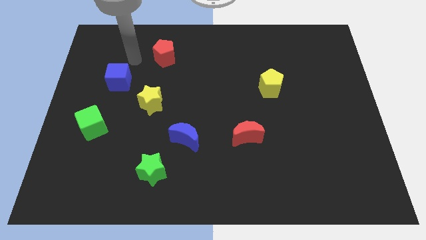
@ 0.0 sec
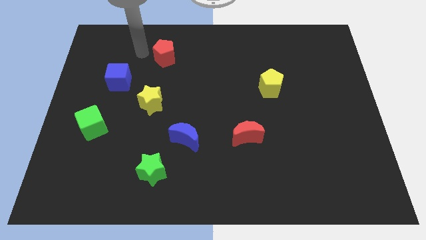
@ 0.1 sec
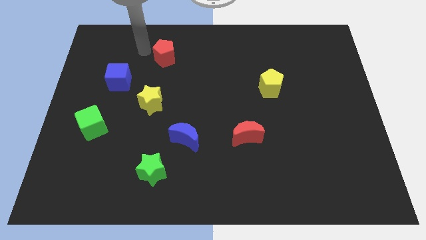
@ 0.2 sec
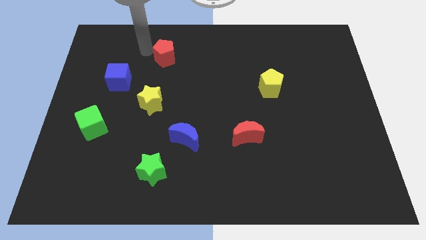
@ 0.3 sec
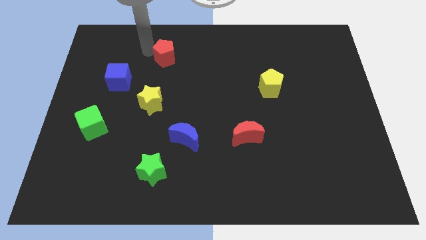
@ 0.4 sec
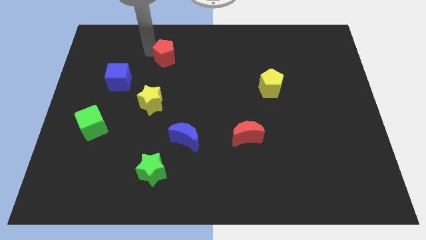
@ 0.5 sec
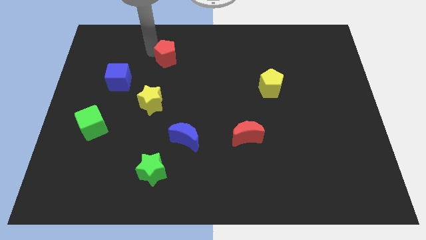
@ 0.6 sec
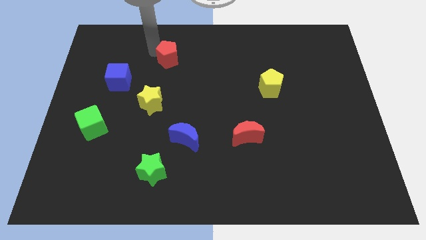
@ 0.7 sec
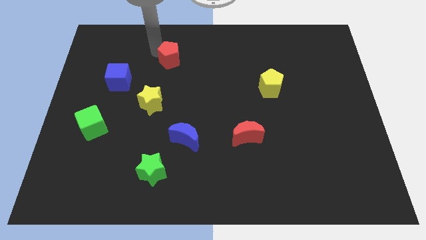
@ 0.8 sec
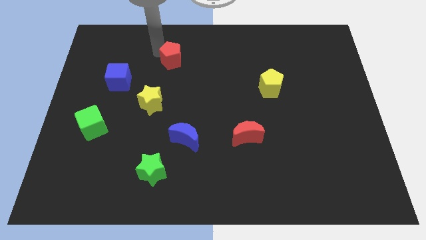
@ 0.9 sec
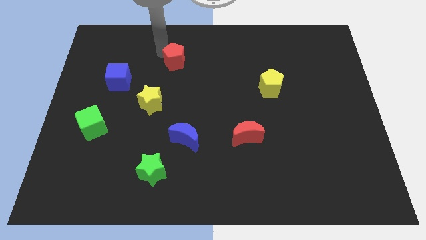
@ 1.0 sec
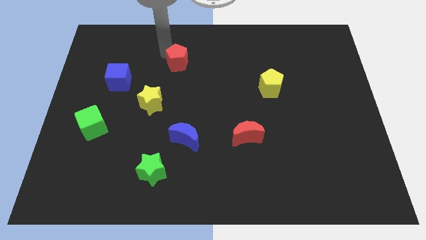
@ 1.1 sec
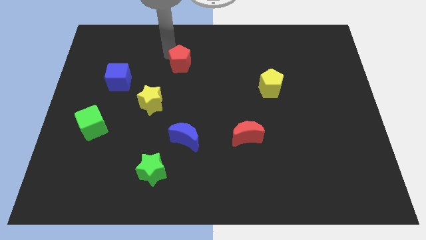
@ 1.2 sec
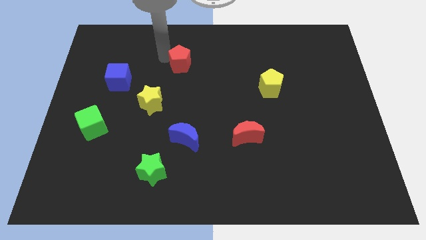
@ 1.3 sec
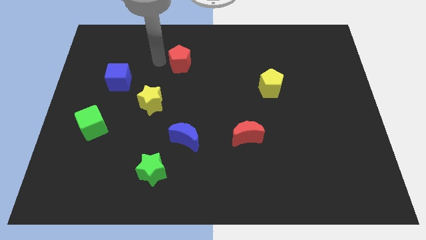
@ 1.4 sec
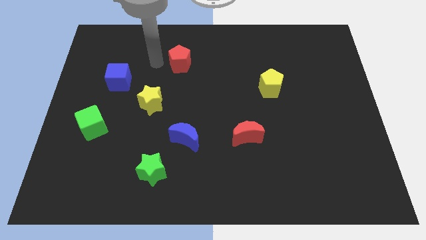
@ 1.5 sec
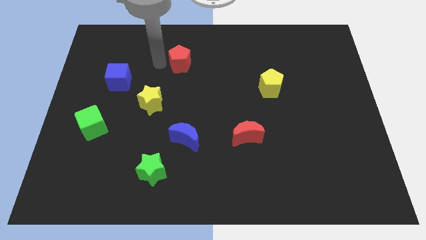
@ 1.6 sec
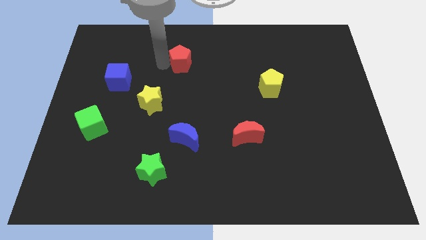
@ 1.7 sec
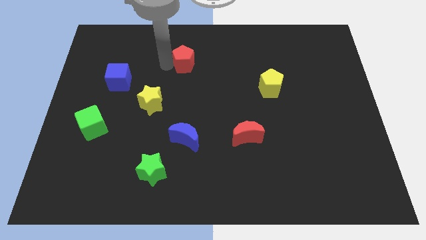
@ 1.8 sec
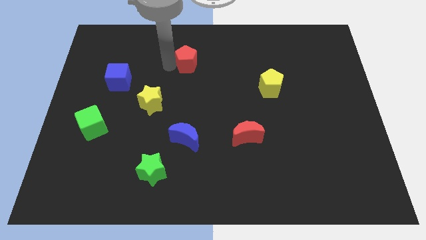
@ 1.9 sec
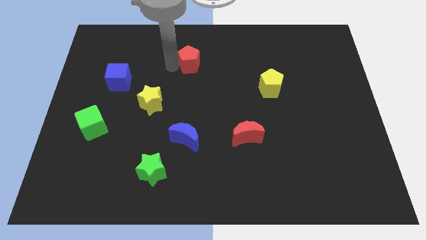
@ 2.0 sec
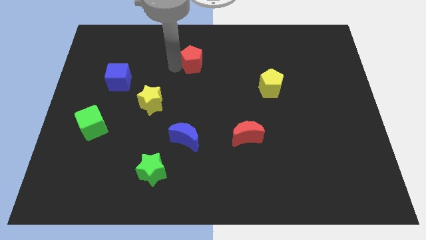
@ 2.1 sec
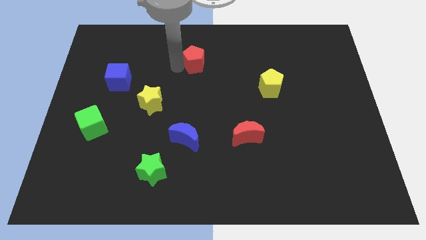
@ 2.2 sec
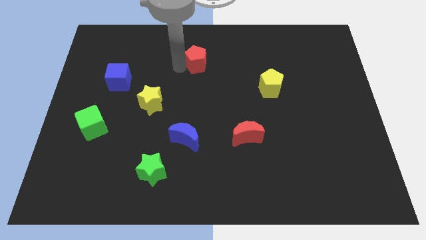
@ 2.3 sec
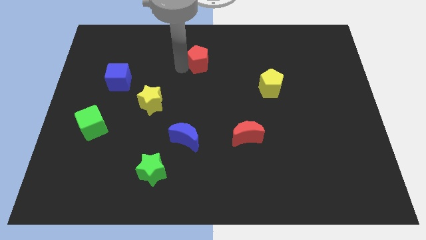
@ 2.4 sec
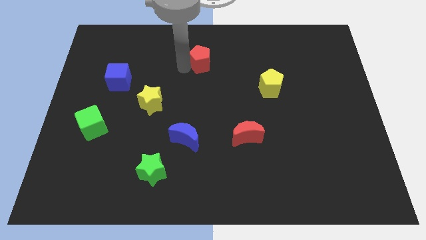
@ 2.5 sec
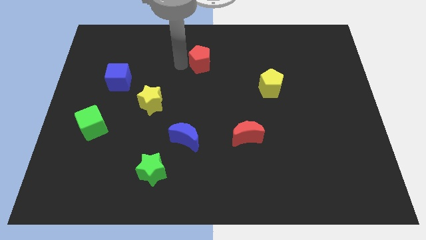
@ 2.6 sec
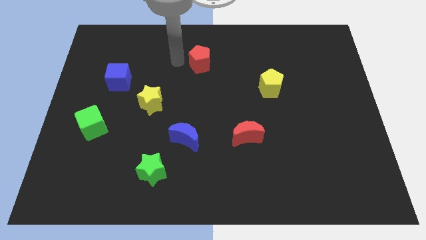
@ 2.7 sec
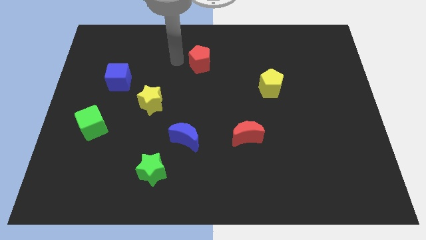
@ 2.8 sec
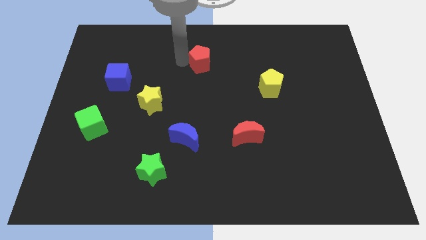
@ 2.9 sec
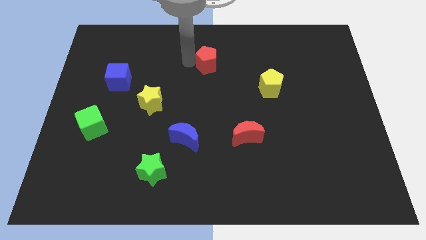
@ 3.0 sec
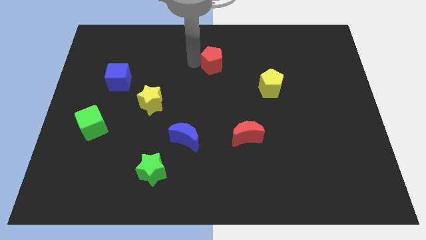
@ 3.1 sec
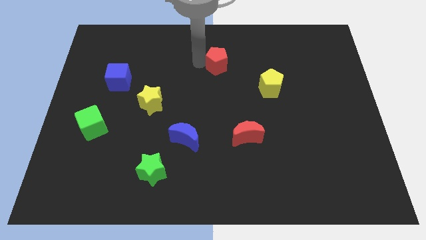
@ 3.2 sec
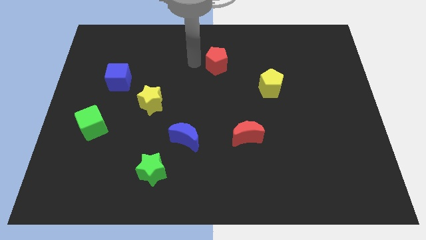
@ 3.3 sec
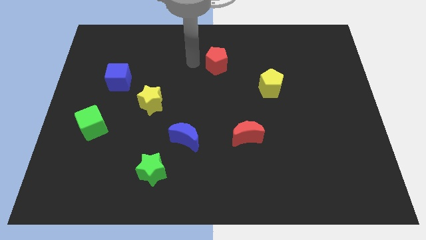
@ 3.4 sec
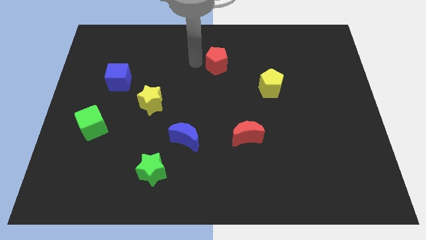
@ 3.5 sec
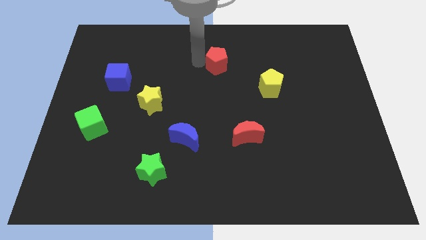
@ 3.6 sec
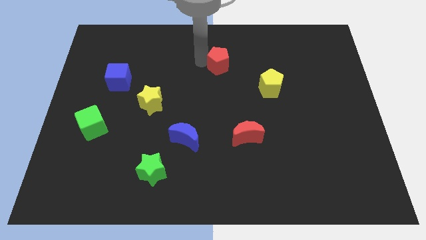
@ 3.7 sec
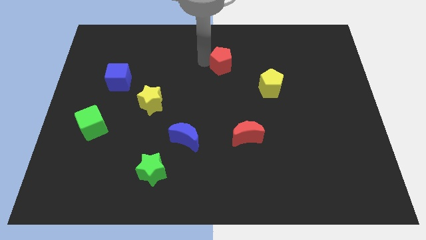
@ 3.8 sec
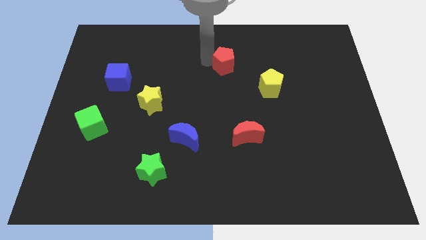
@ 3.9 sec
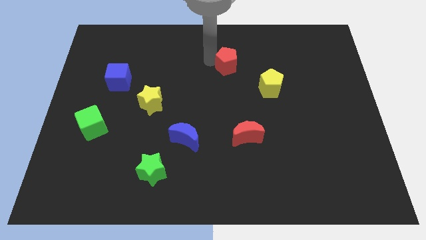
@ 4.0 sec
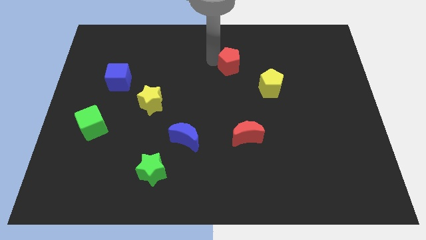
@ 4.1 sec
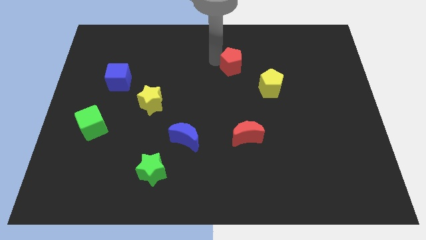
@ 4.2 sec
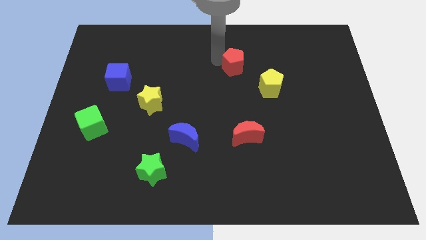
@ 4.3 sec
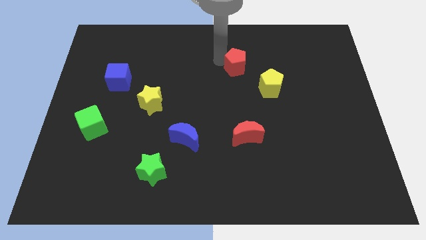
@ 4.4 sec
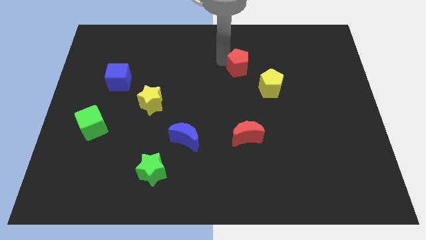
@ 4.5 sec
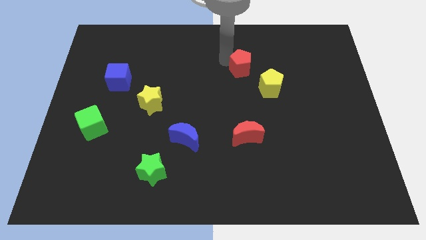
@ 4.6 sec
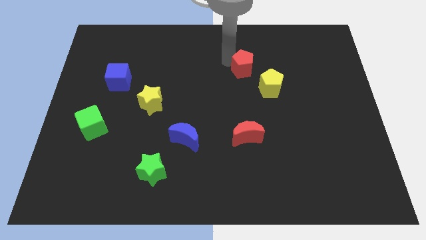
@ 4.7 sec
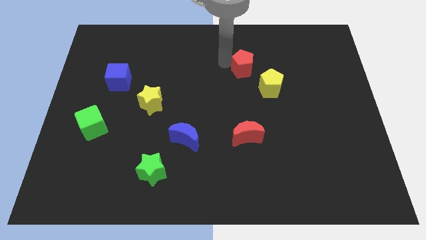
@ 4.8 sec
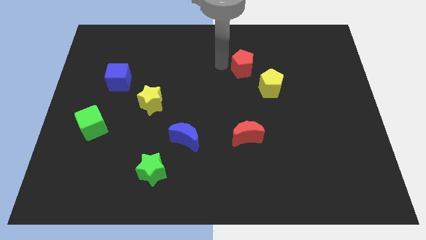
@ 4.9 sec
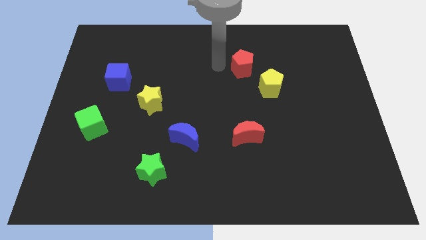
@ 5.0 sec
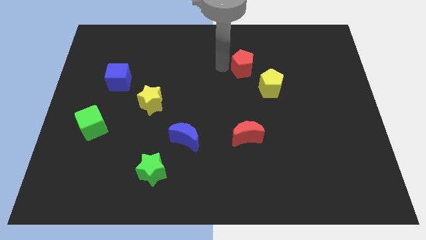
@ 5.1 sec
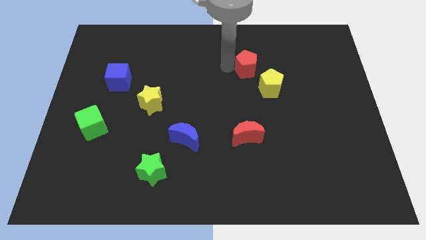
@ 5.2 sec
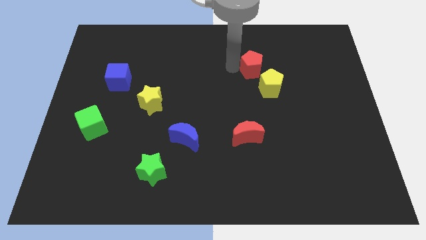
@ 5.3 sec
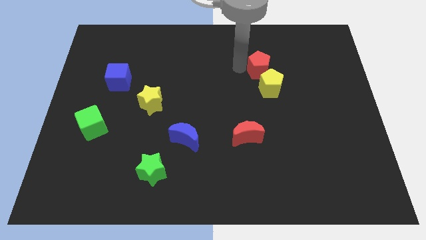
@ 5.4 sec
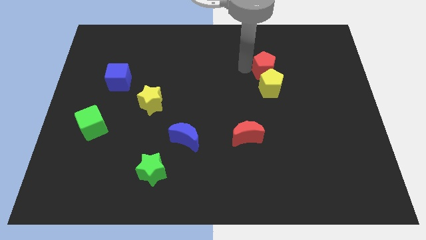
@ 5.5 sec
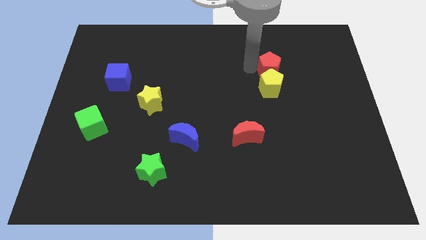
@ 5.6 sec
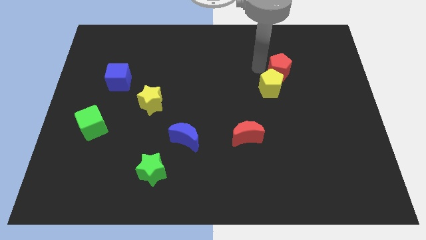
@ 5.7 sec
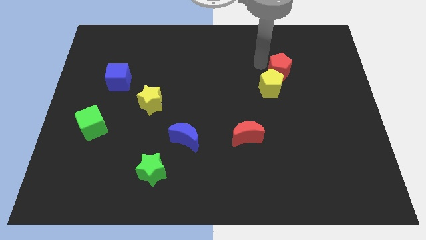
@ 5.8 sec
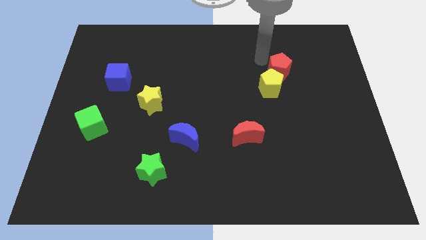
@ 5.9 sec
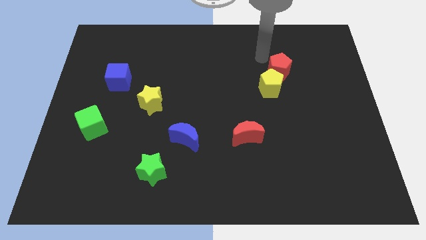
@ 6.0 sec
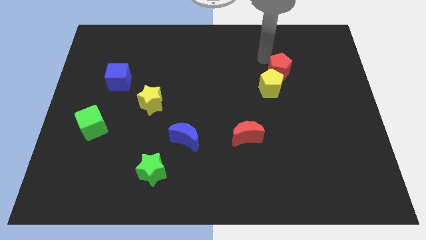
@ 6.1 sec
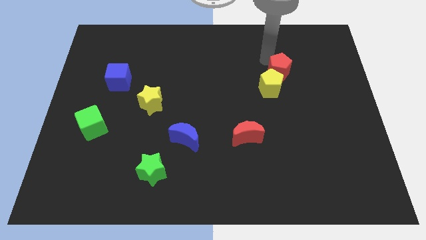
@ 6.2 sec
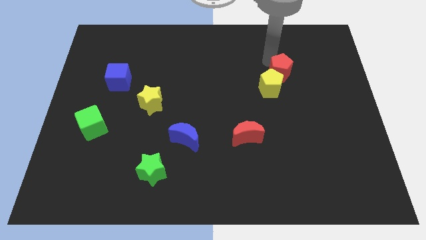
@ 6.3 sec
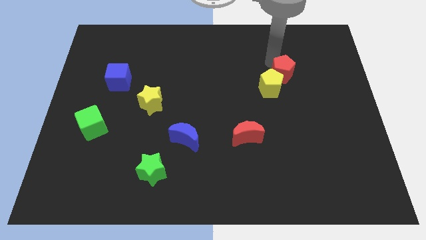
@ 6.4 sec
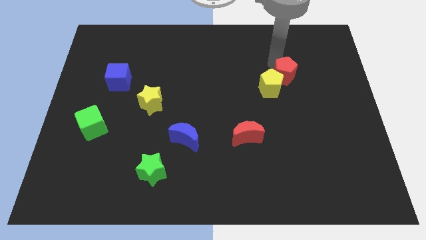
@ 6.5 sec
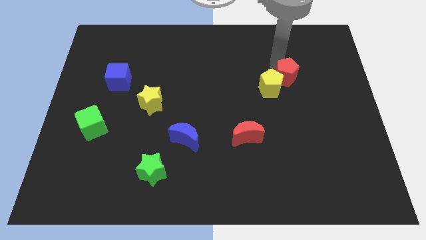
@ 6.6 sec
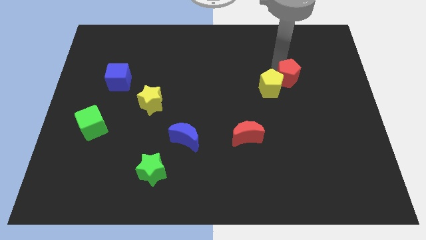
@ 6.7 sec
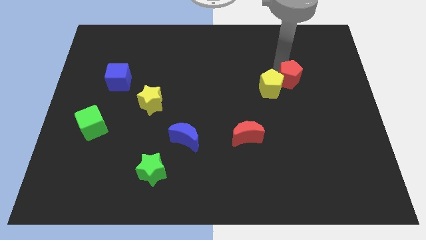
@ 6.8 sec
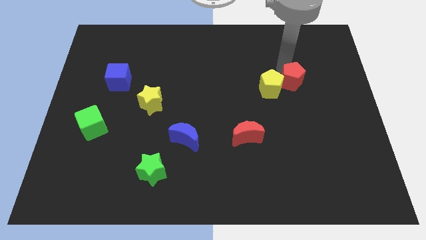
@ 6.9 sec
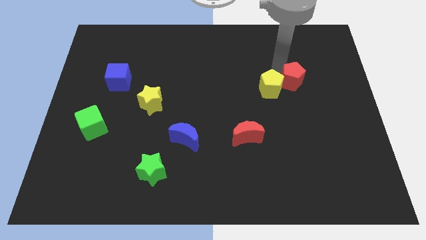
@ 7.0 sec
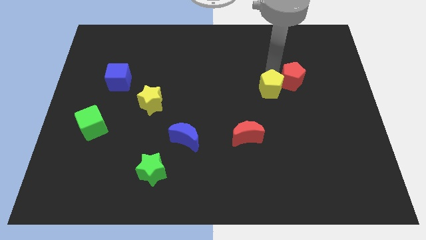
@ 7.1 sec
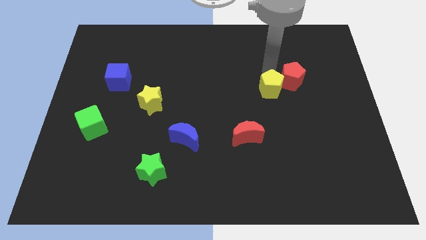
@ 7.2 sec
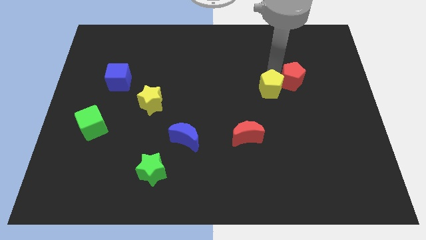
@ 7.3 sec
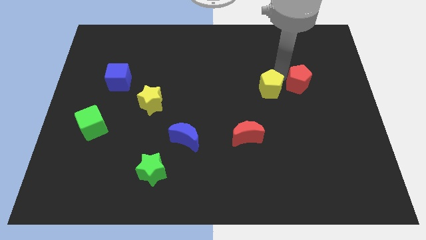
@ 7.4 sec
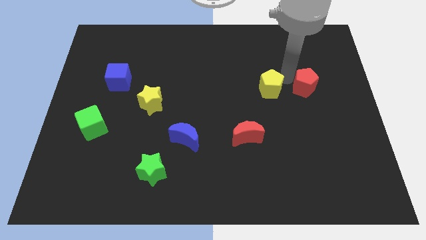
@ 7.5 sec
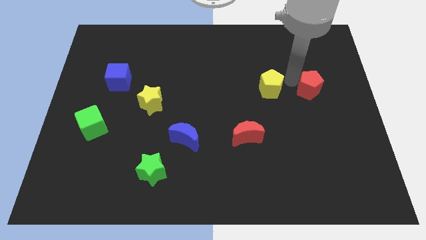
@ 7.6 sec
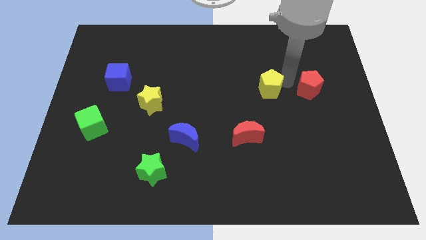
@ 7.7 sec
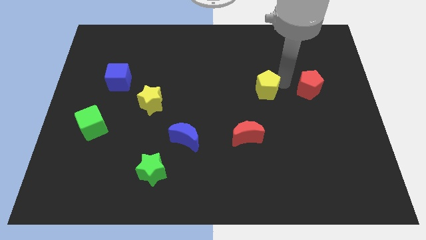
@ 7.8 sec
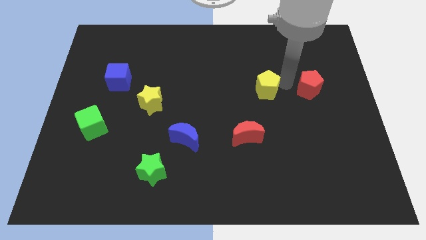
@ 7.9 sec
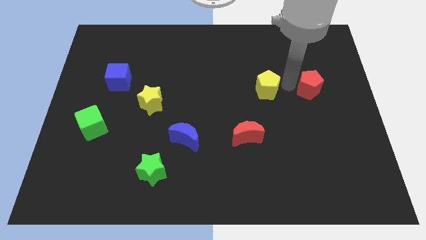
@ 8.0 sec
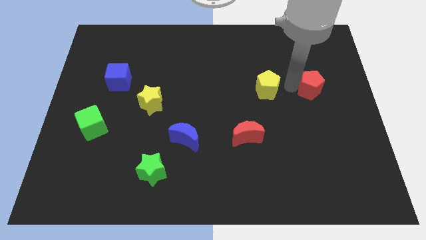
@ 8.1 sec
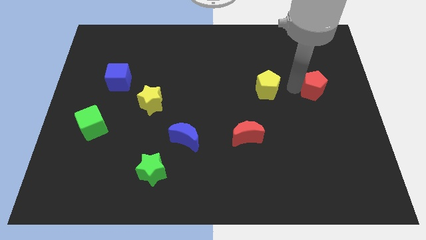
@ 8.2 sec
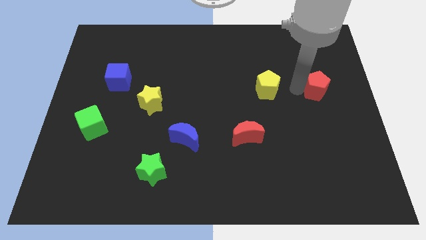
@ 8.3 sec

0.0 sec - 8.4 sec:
push the red pentagon to the right side
